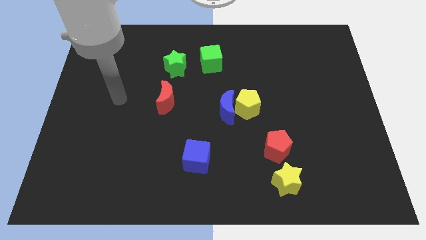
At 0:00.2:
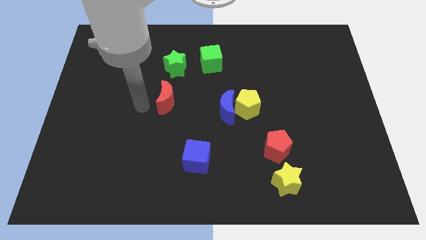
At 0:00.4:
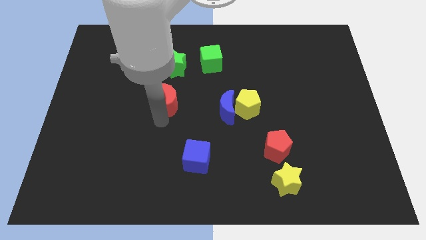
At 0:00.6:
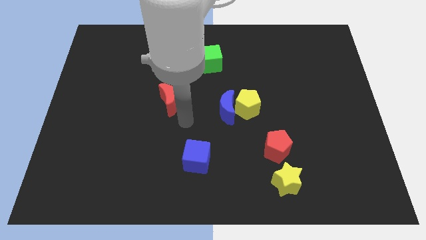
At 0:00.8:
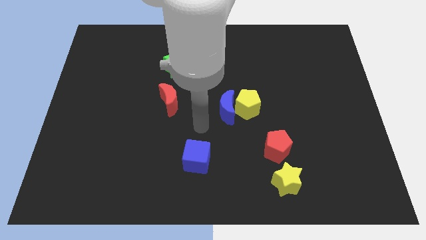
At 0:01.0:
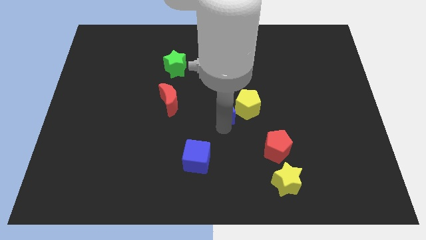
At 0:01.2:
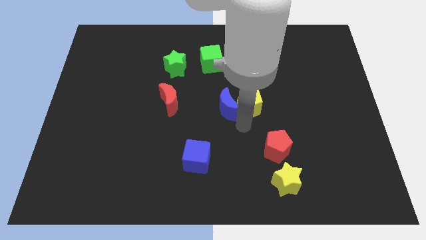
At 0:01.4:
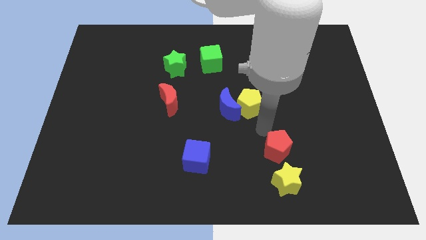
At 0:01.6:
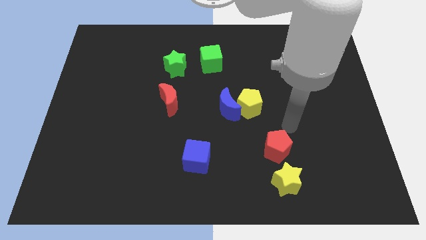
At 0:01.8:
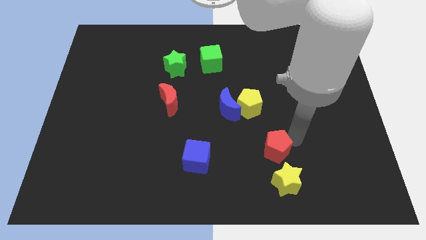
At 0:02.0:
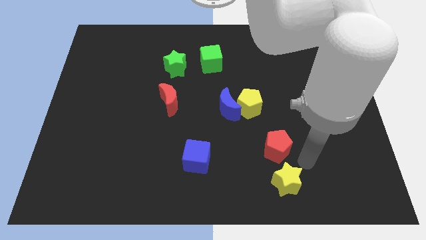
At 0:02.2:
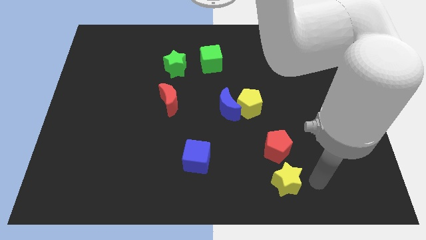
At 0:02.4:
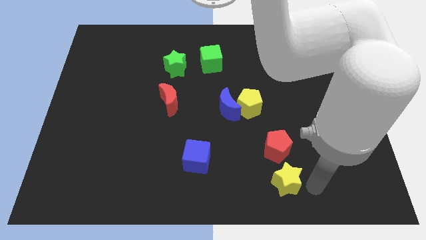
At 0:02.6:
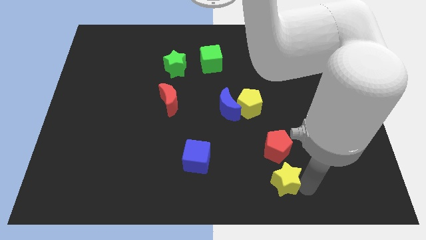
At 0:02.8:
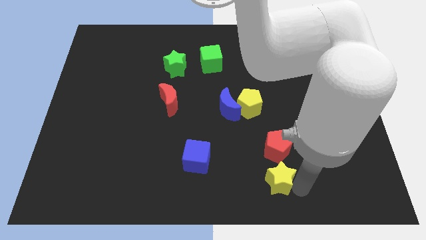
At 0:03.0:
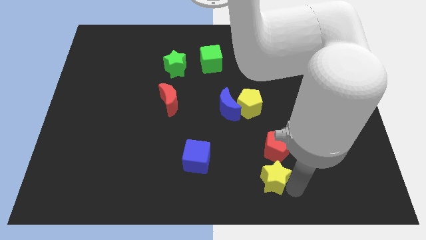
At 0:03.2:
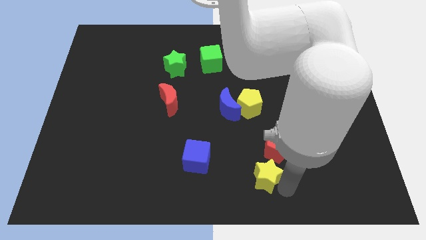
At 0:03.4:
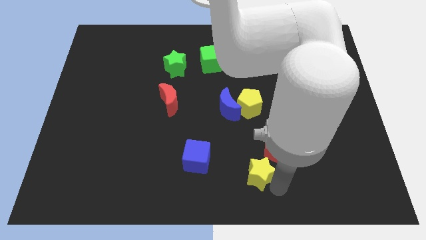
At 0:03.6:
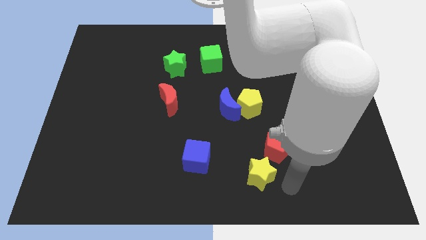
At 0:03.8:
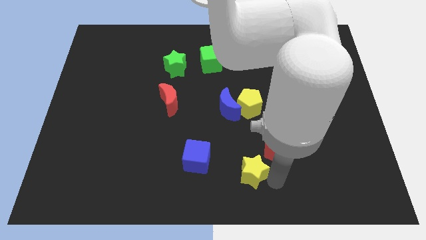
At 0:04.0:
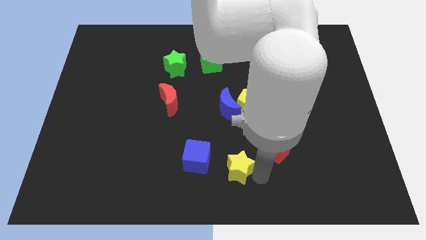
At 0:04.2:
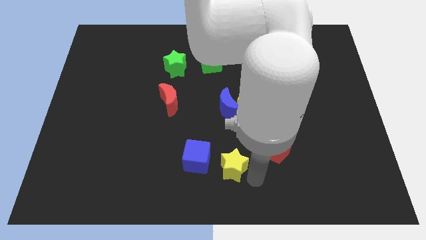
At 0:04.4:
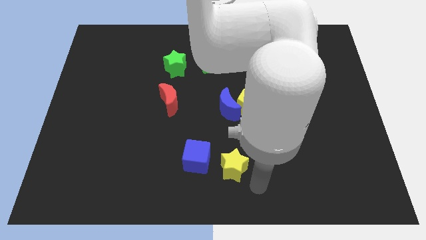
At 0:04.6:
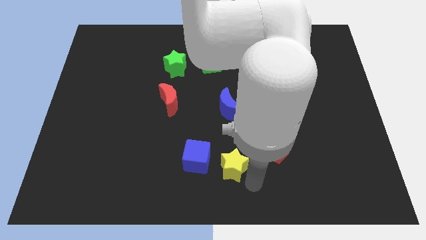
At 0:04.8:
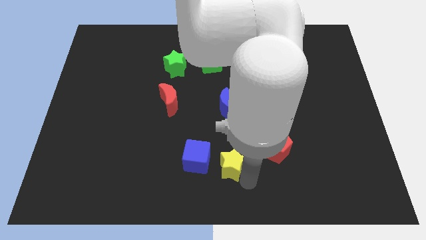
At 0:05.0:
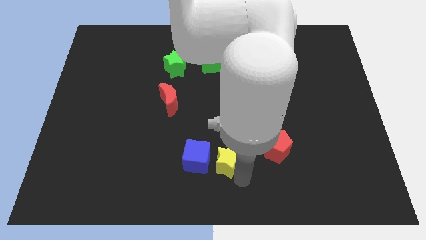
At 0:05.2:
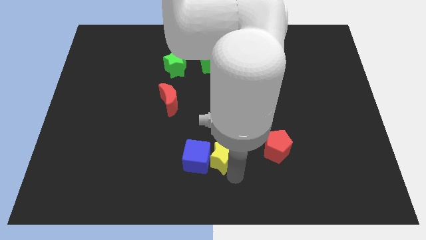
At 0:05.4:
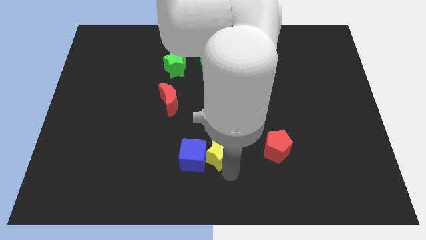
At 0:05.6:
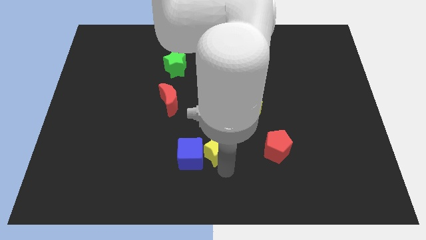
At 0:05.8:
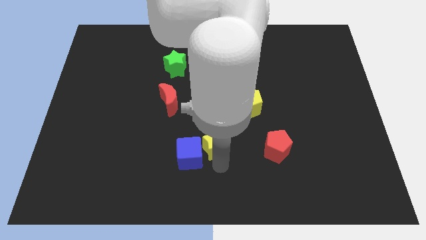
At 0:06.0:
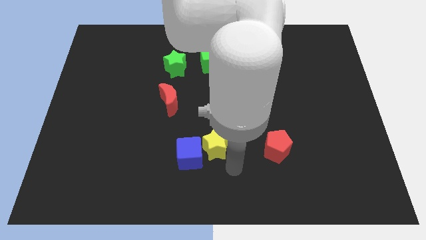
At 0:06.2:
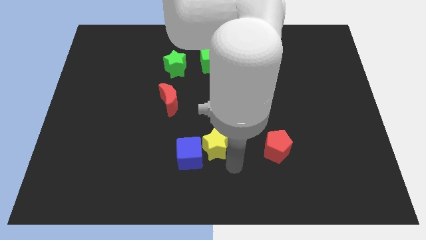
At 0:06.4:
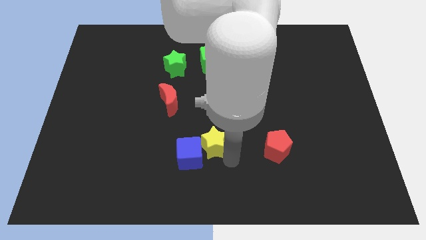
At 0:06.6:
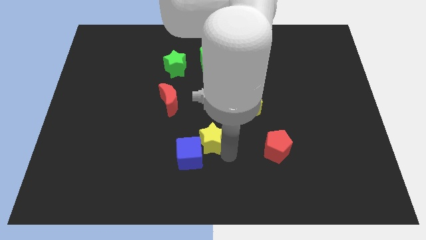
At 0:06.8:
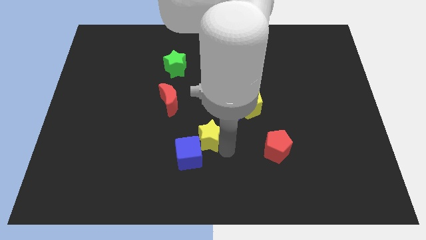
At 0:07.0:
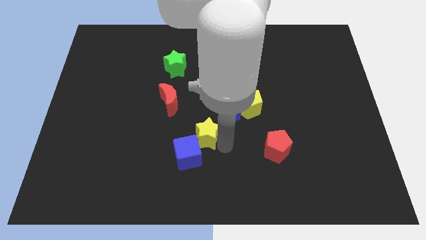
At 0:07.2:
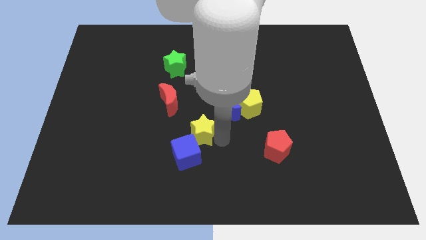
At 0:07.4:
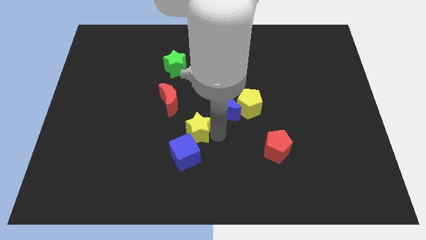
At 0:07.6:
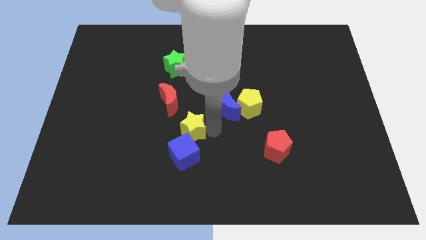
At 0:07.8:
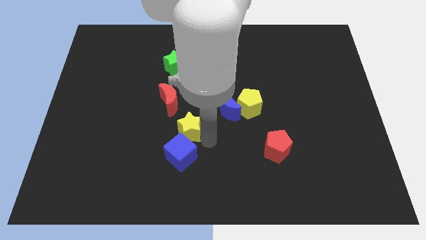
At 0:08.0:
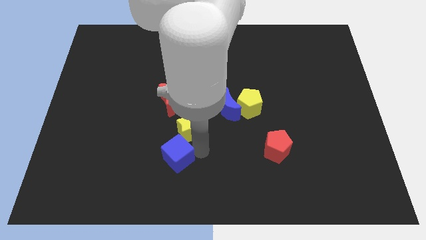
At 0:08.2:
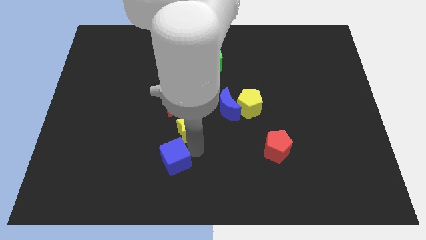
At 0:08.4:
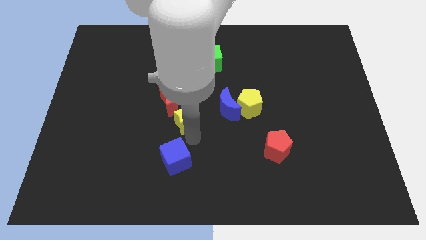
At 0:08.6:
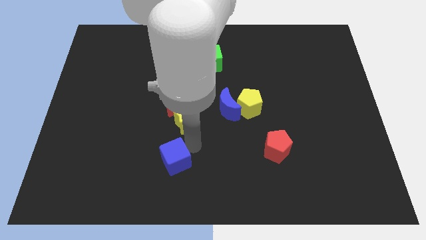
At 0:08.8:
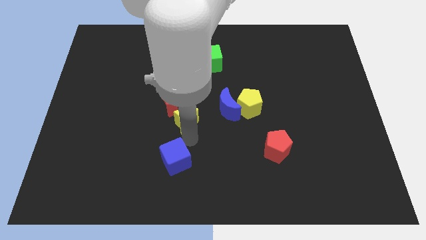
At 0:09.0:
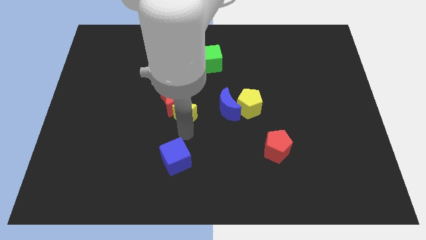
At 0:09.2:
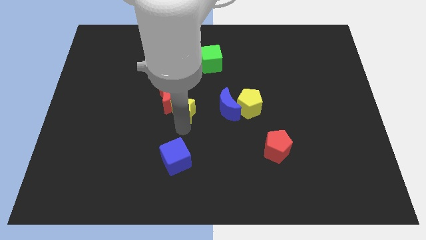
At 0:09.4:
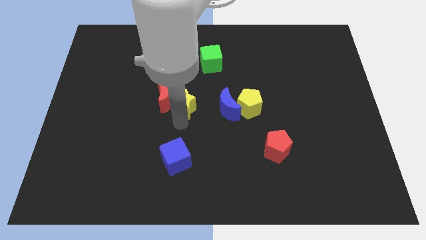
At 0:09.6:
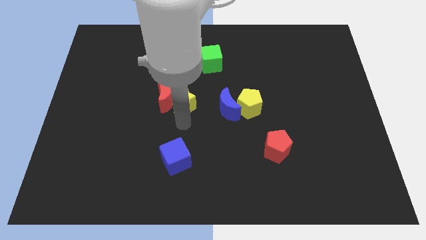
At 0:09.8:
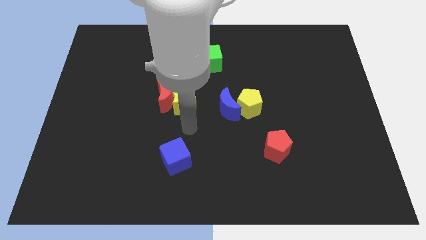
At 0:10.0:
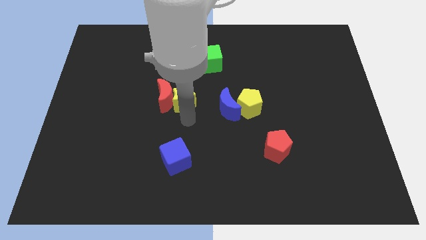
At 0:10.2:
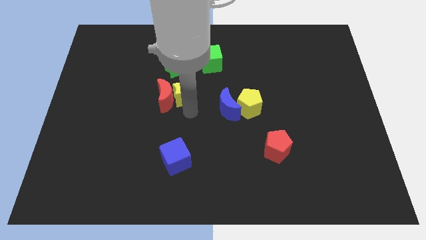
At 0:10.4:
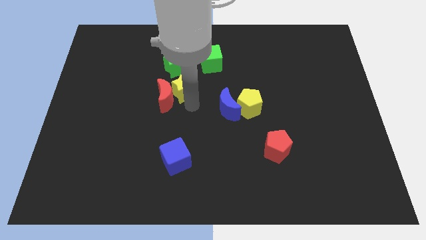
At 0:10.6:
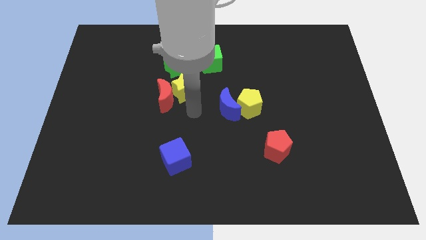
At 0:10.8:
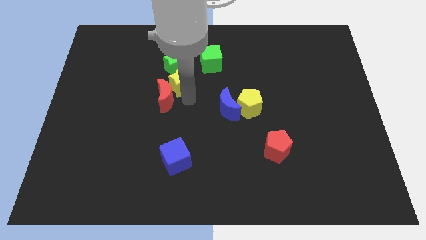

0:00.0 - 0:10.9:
slide the yellow star towards the green star

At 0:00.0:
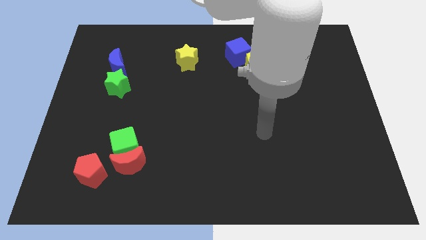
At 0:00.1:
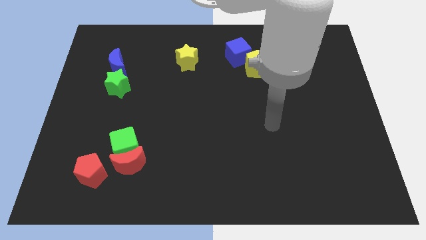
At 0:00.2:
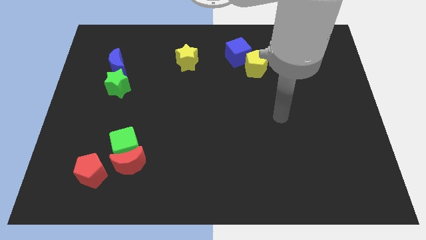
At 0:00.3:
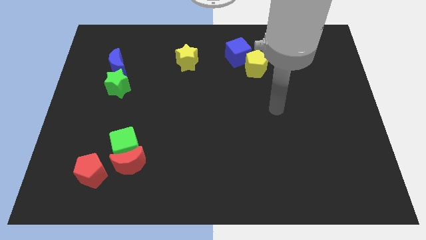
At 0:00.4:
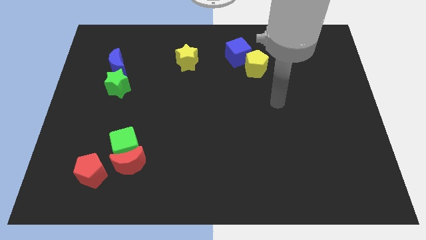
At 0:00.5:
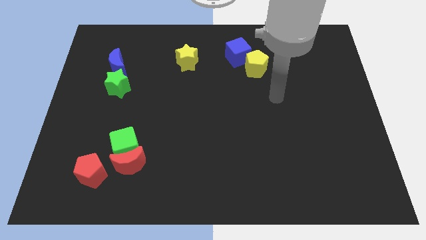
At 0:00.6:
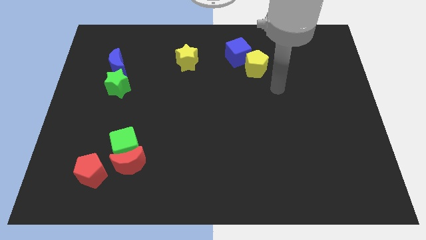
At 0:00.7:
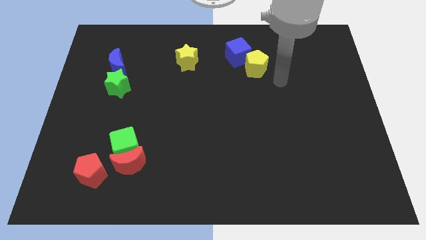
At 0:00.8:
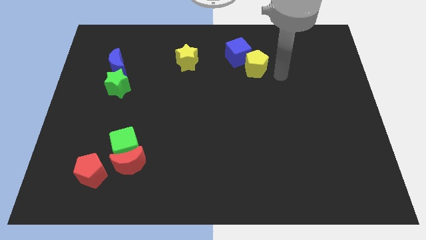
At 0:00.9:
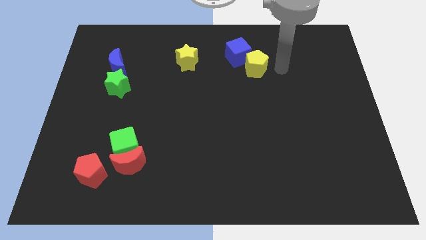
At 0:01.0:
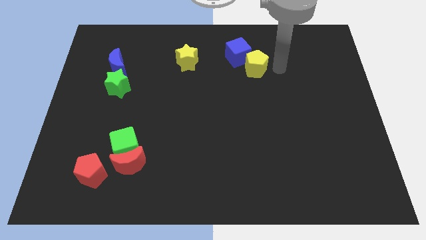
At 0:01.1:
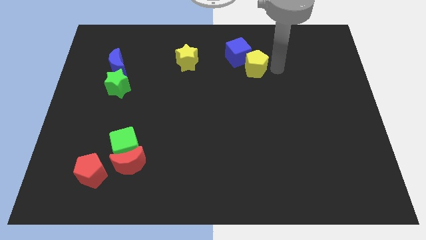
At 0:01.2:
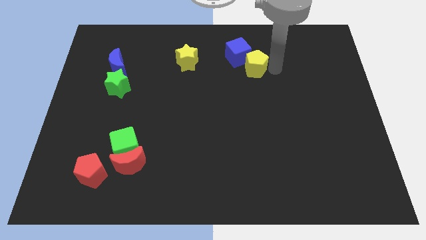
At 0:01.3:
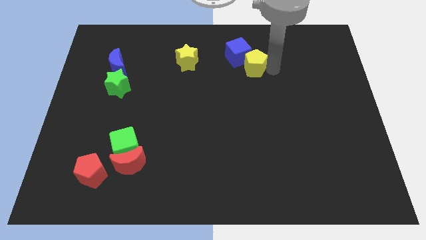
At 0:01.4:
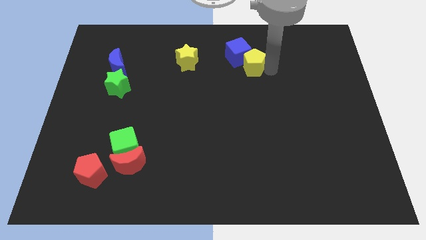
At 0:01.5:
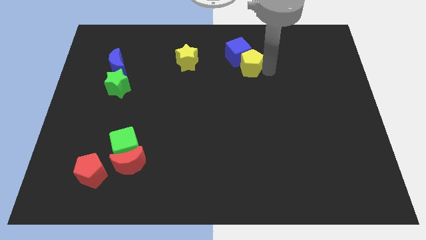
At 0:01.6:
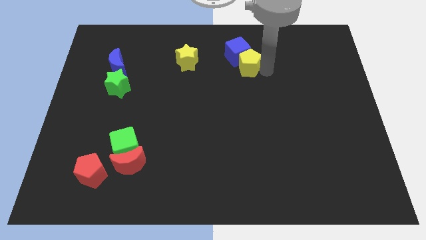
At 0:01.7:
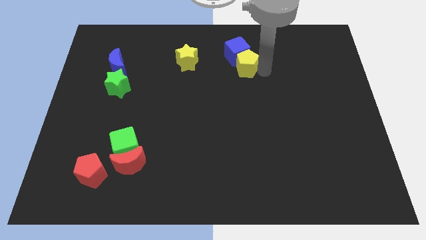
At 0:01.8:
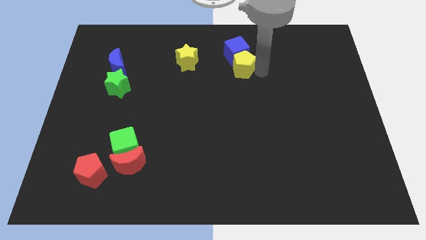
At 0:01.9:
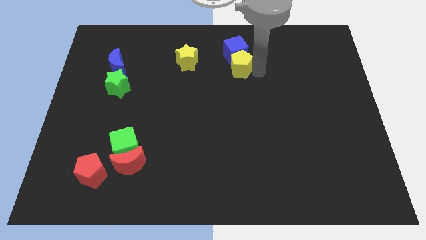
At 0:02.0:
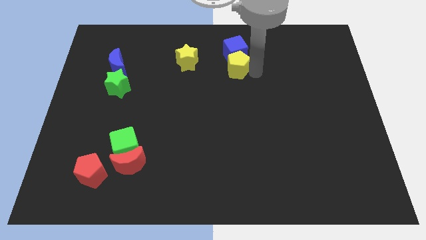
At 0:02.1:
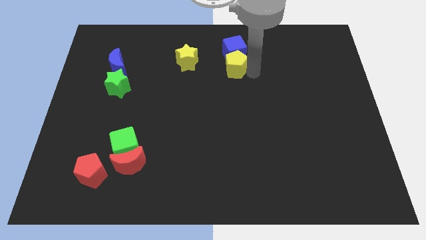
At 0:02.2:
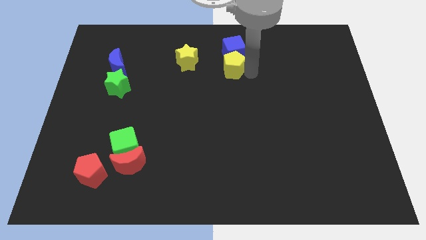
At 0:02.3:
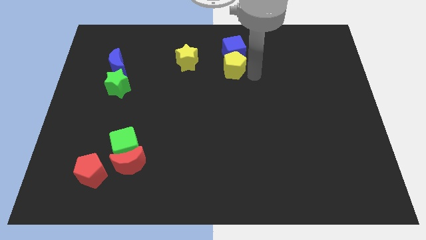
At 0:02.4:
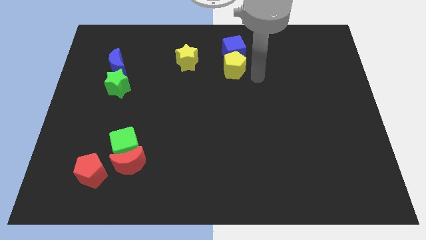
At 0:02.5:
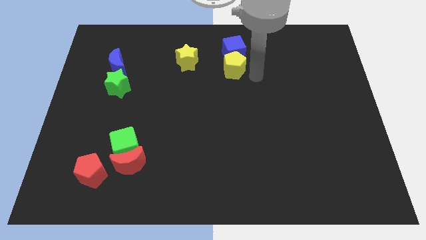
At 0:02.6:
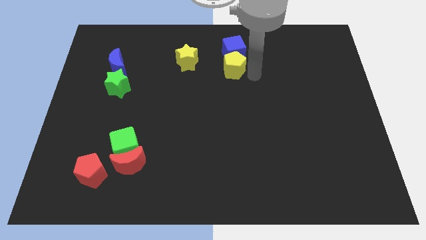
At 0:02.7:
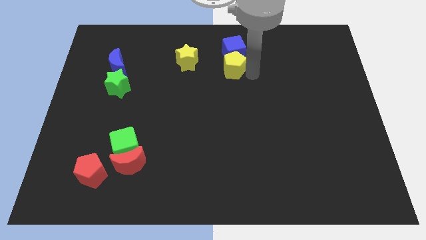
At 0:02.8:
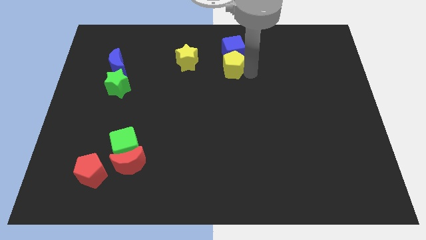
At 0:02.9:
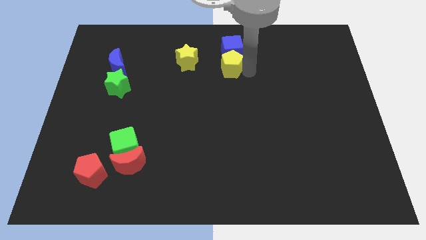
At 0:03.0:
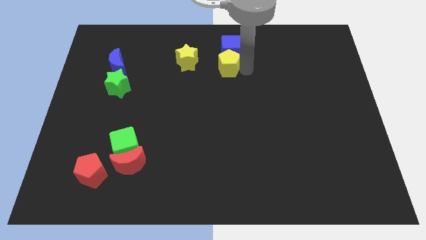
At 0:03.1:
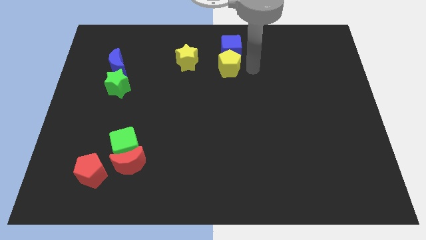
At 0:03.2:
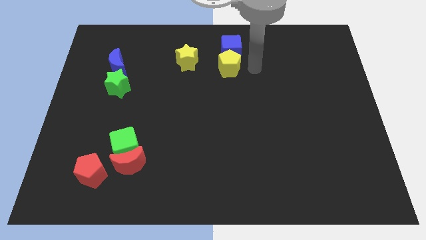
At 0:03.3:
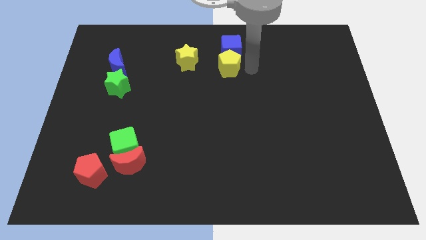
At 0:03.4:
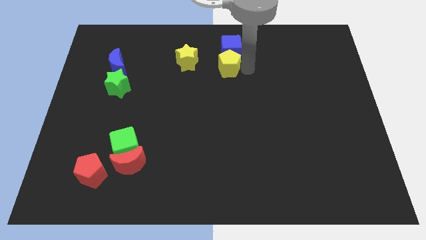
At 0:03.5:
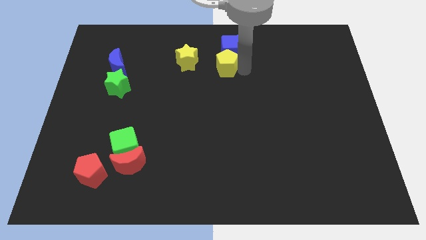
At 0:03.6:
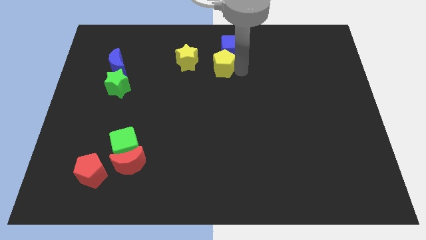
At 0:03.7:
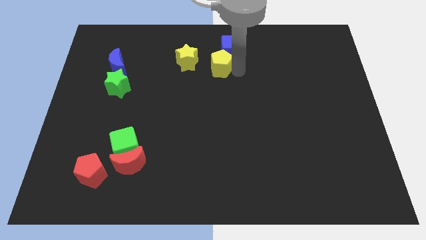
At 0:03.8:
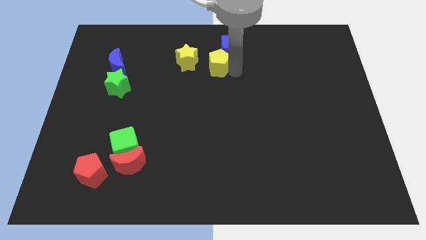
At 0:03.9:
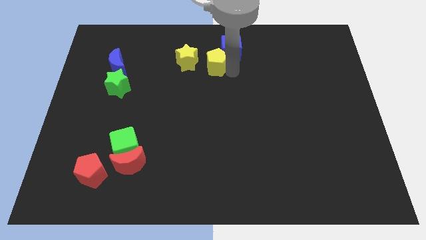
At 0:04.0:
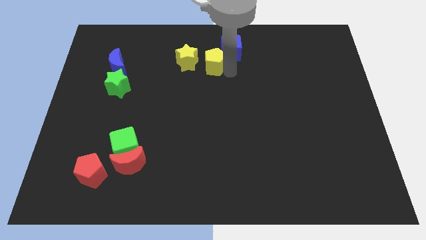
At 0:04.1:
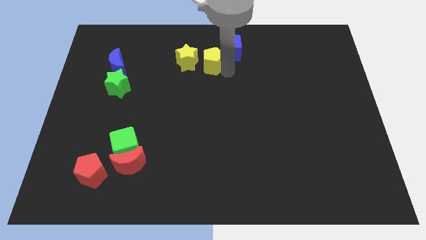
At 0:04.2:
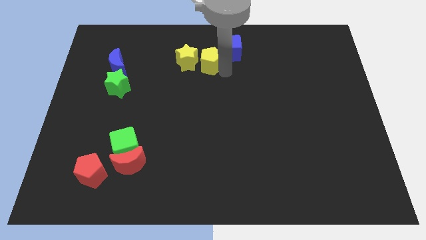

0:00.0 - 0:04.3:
slide the yellow pentagon next to the yellow star
